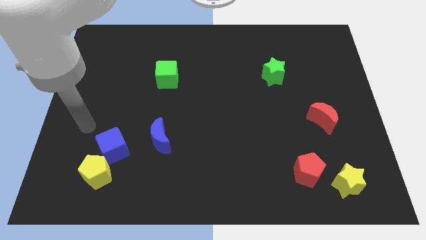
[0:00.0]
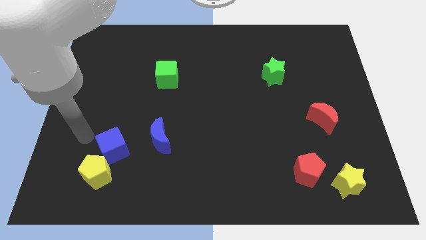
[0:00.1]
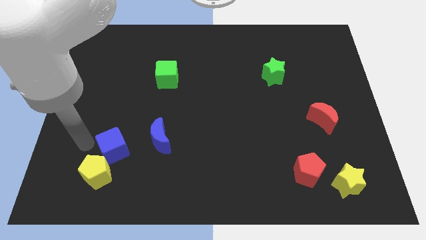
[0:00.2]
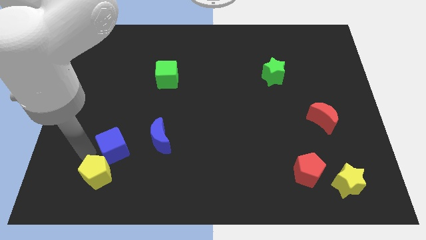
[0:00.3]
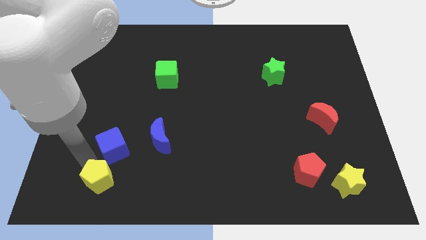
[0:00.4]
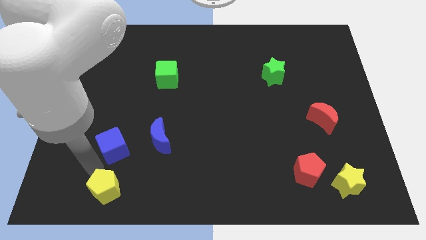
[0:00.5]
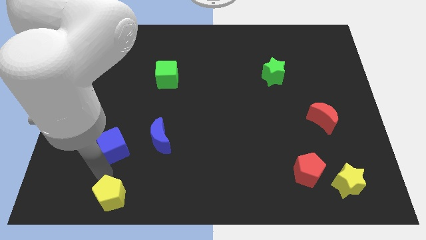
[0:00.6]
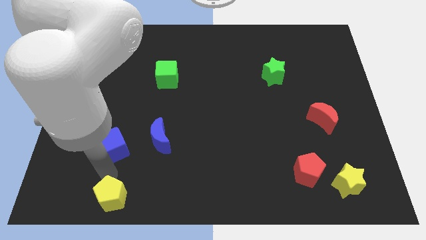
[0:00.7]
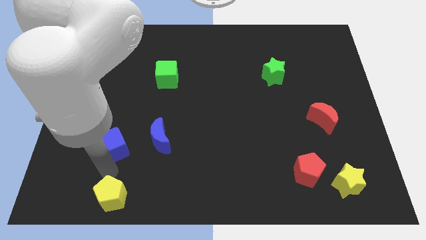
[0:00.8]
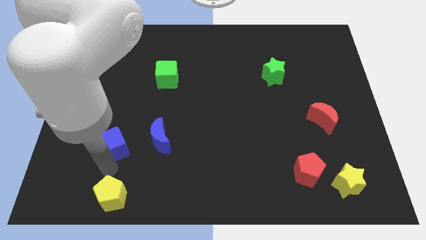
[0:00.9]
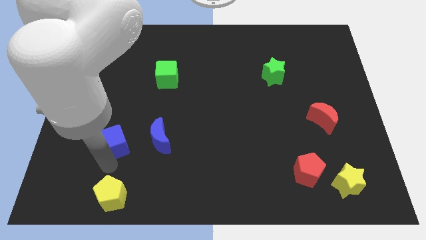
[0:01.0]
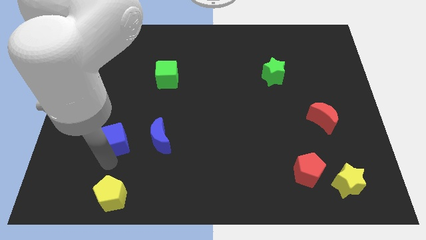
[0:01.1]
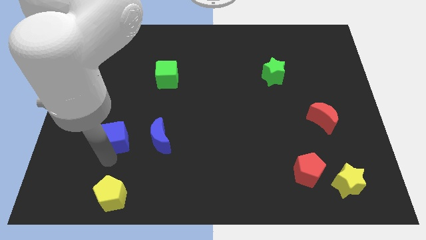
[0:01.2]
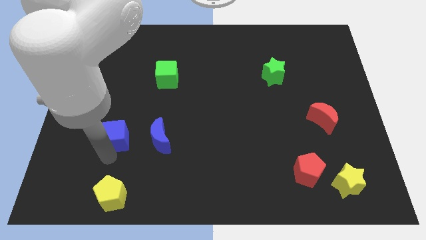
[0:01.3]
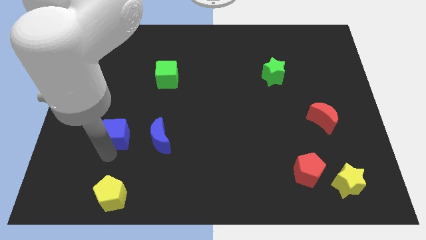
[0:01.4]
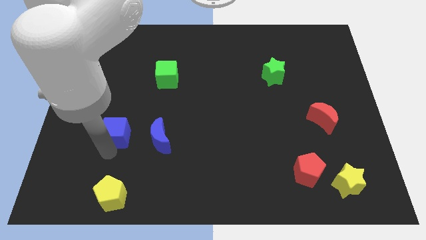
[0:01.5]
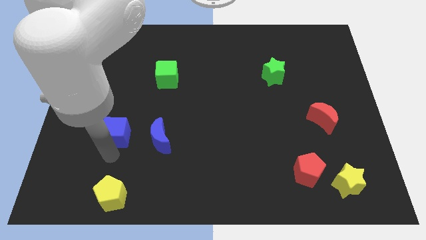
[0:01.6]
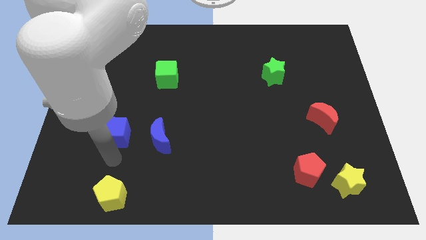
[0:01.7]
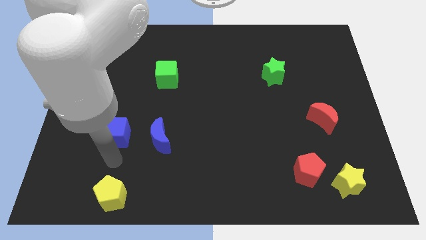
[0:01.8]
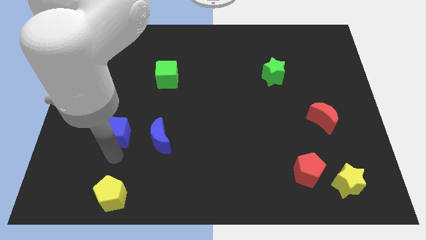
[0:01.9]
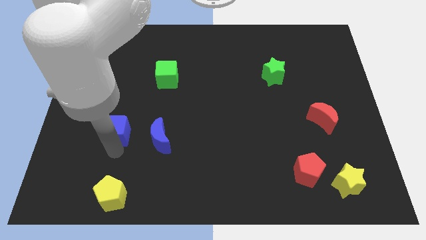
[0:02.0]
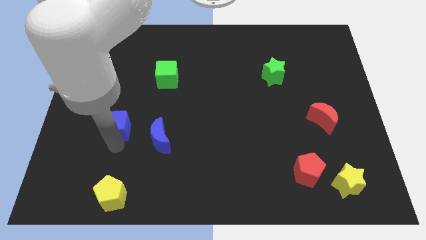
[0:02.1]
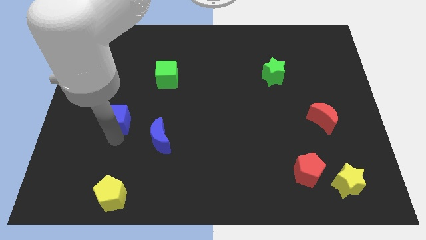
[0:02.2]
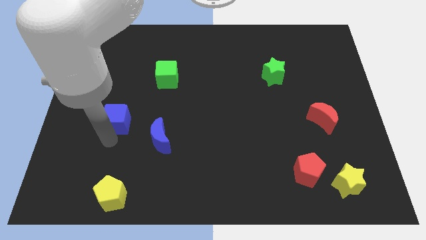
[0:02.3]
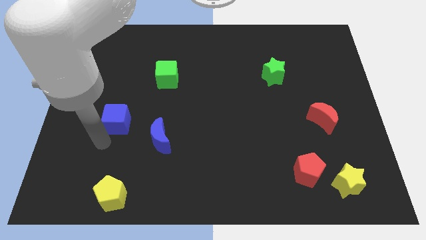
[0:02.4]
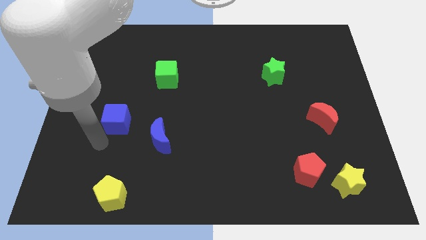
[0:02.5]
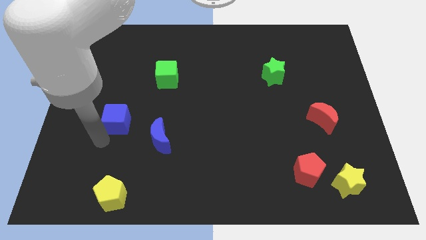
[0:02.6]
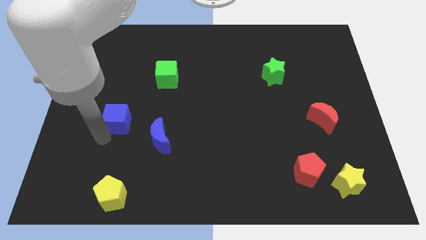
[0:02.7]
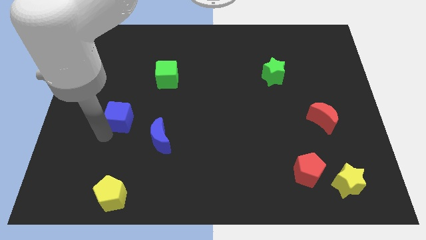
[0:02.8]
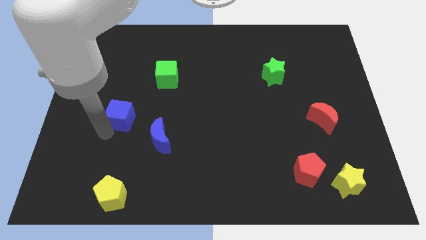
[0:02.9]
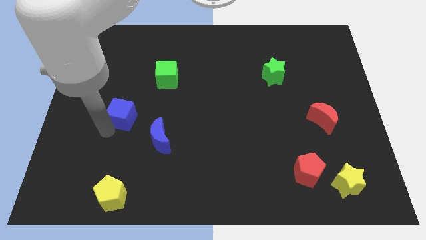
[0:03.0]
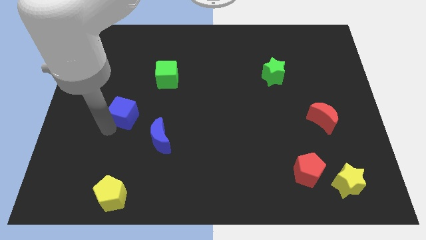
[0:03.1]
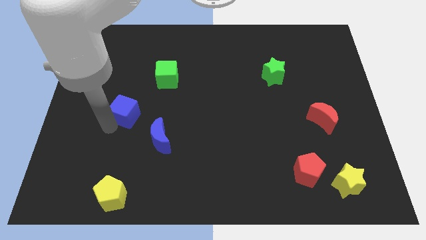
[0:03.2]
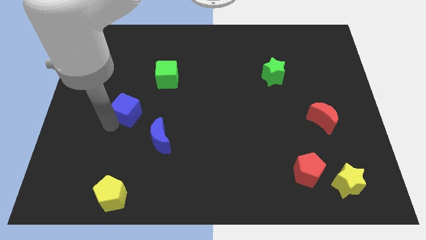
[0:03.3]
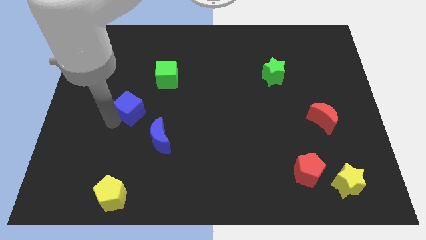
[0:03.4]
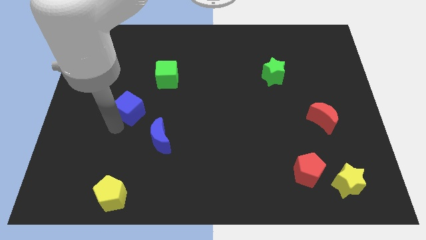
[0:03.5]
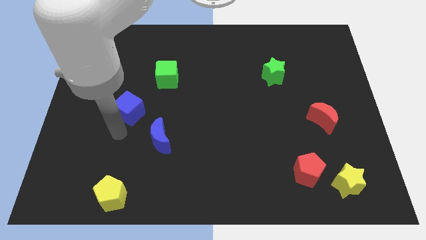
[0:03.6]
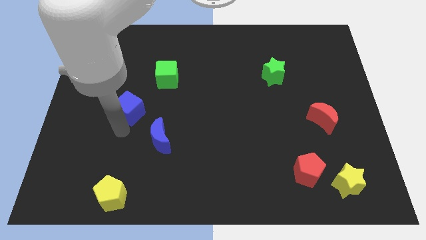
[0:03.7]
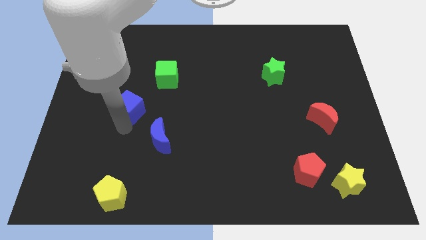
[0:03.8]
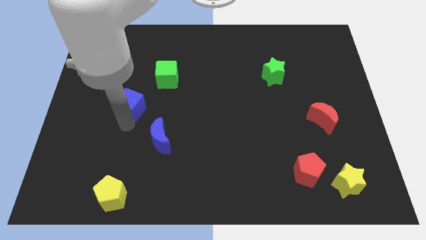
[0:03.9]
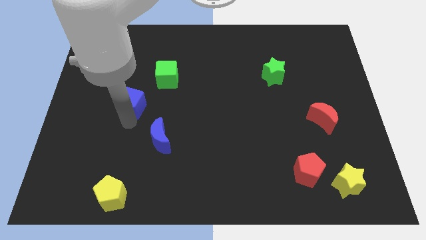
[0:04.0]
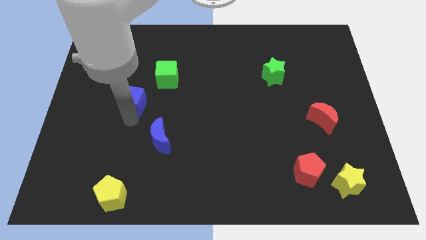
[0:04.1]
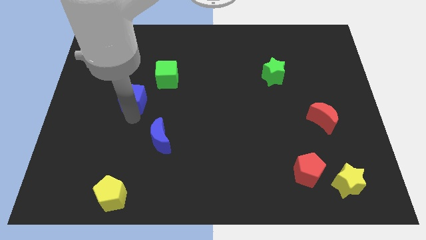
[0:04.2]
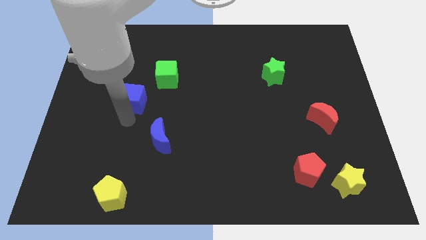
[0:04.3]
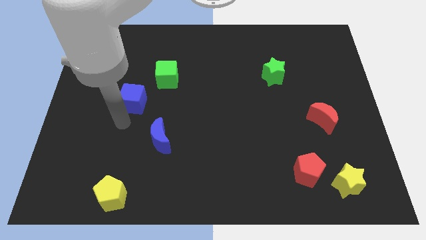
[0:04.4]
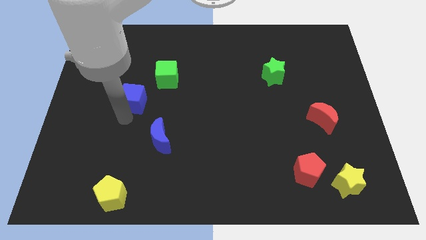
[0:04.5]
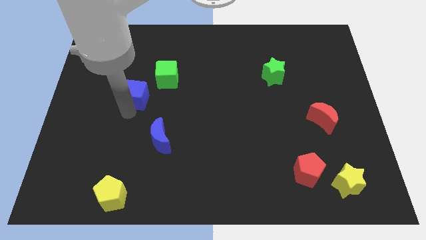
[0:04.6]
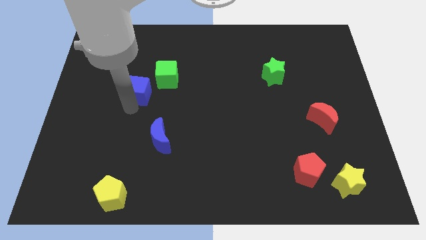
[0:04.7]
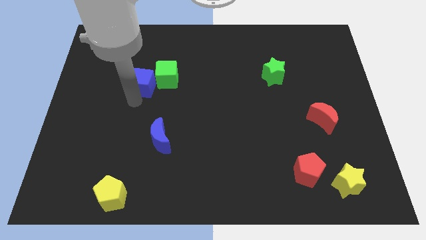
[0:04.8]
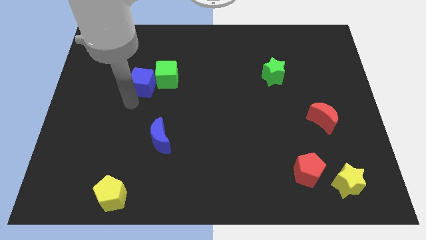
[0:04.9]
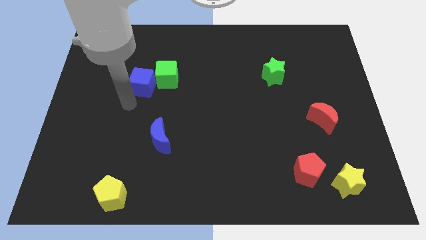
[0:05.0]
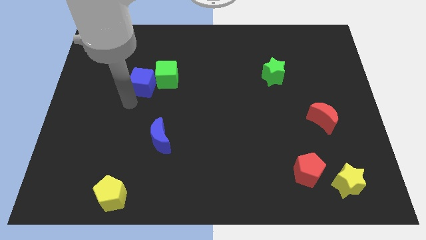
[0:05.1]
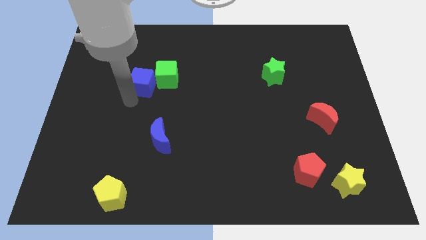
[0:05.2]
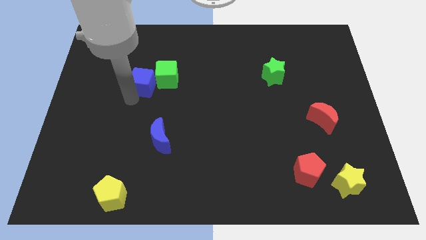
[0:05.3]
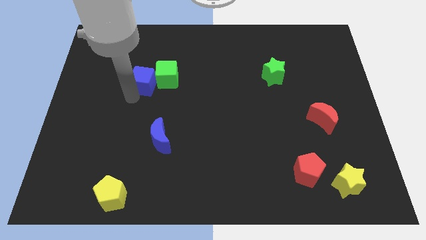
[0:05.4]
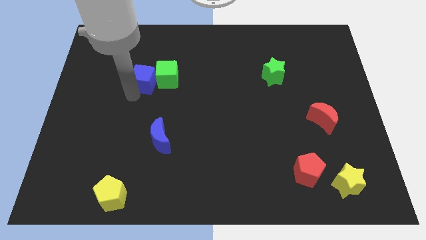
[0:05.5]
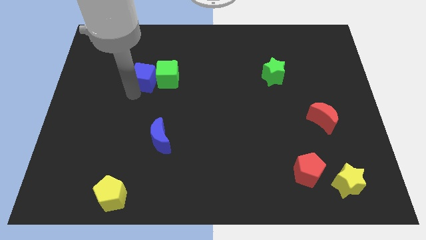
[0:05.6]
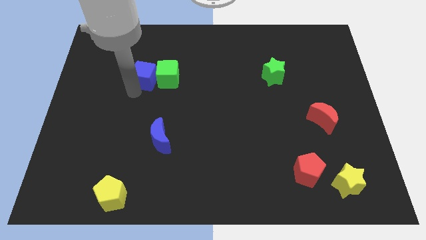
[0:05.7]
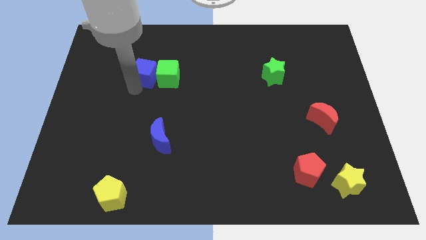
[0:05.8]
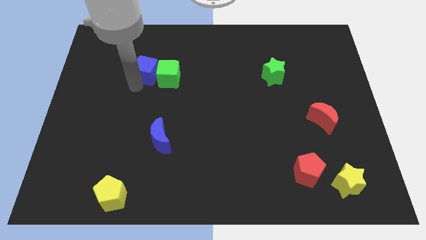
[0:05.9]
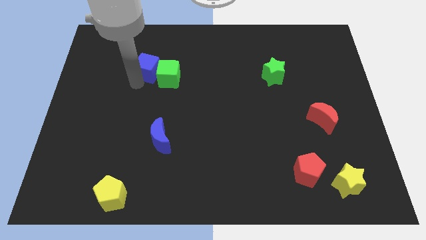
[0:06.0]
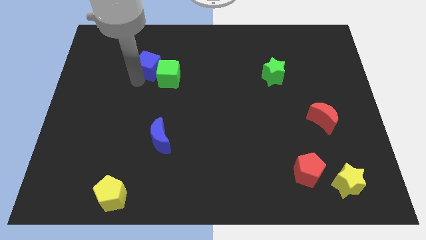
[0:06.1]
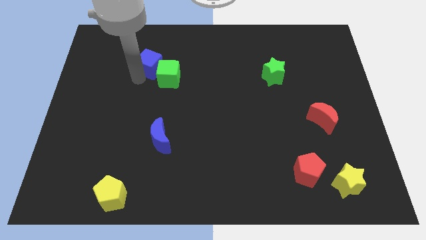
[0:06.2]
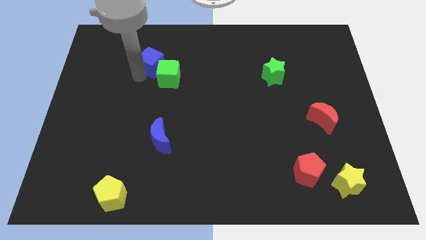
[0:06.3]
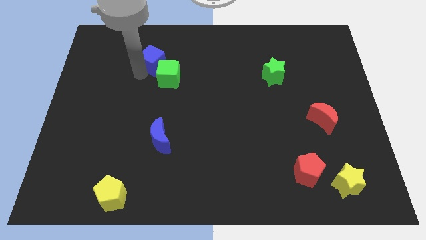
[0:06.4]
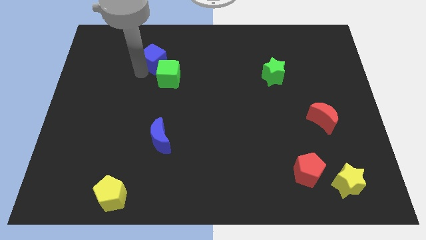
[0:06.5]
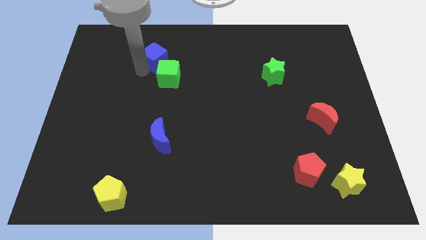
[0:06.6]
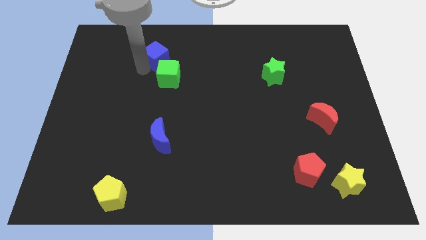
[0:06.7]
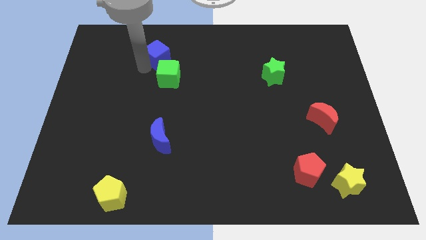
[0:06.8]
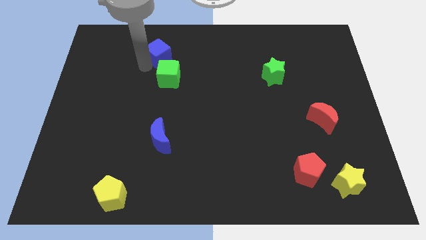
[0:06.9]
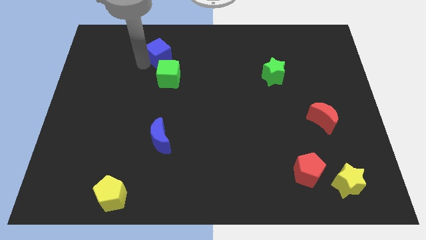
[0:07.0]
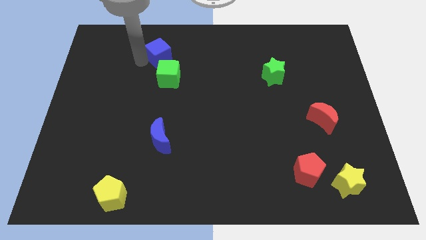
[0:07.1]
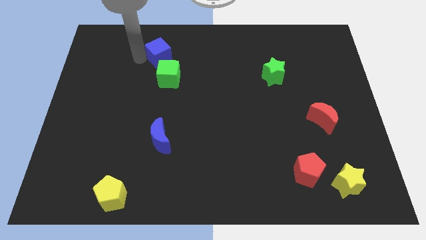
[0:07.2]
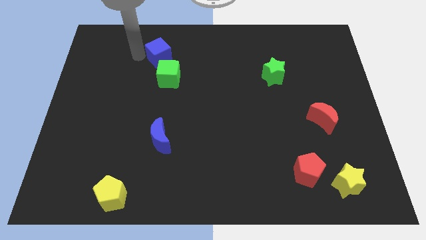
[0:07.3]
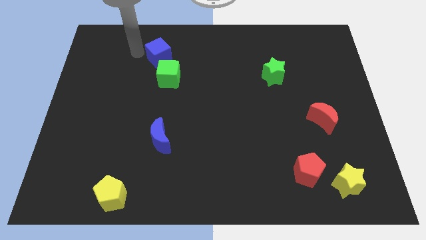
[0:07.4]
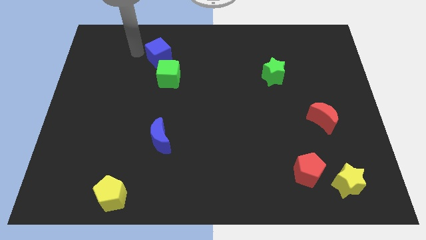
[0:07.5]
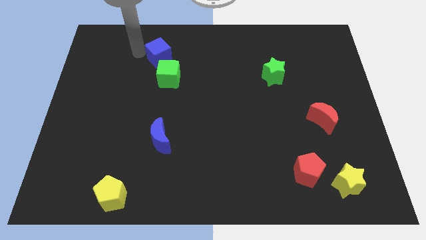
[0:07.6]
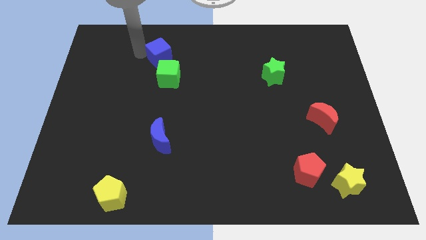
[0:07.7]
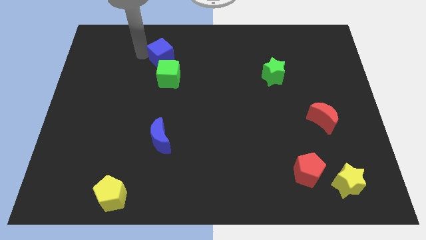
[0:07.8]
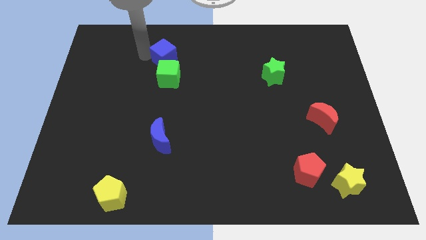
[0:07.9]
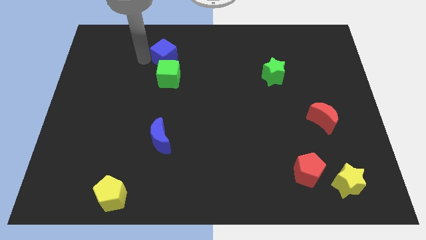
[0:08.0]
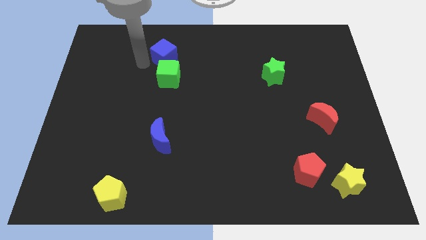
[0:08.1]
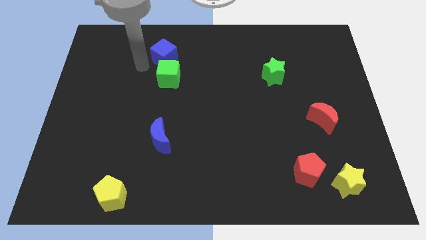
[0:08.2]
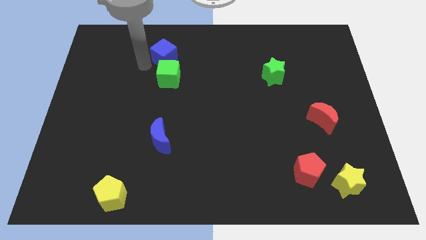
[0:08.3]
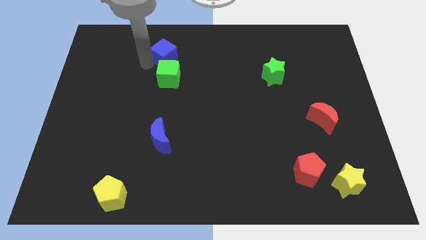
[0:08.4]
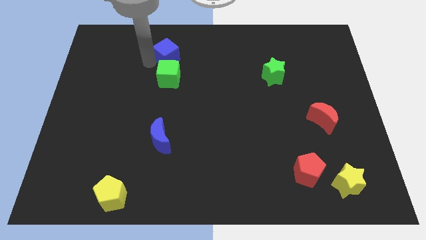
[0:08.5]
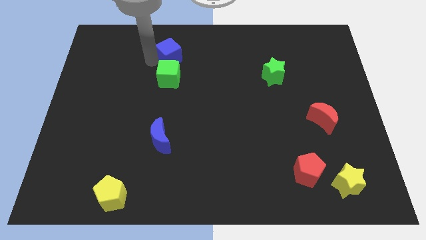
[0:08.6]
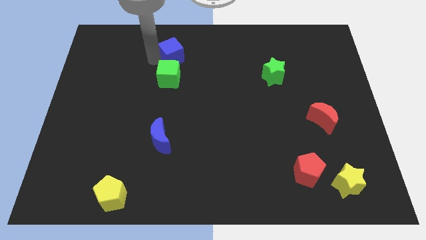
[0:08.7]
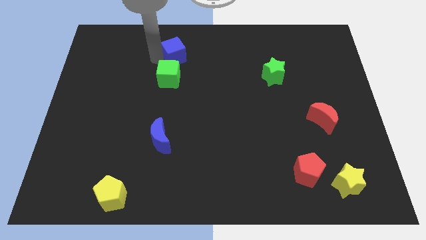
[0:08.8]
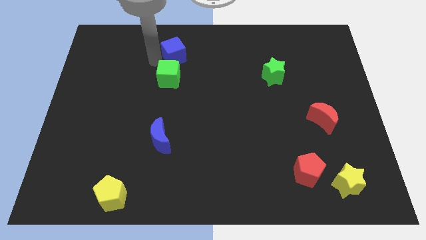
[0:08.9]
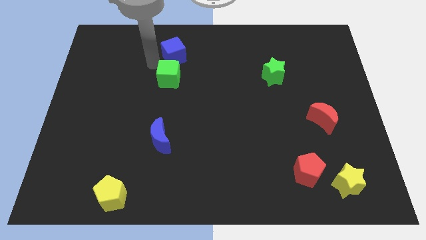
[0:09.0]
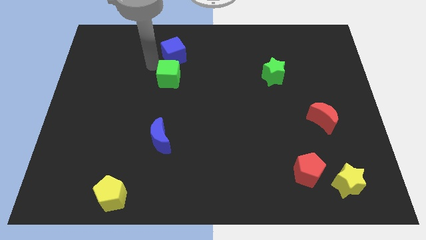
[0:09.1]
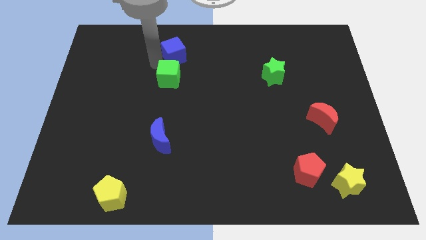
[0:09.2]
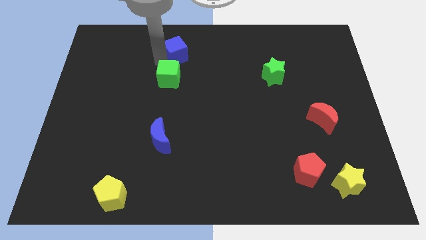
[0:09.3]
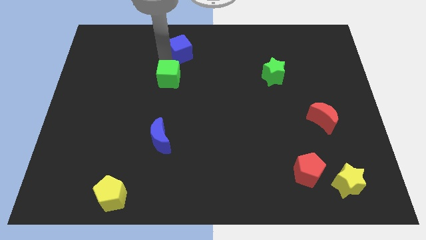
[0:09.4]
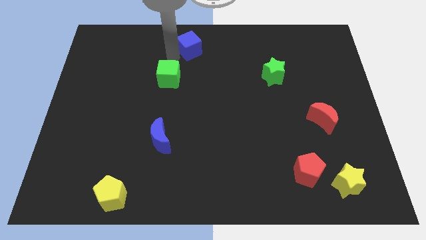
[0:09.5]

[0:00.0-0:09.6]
push the blue cube to the top
